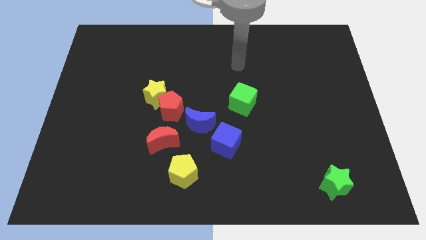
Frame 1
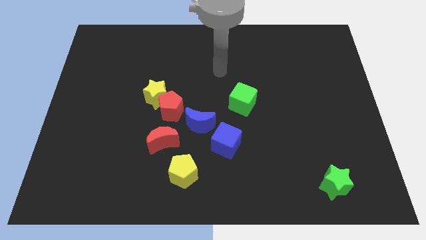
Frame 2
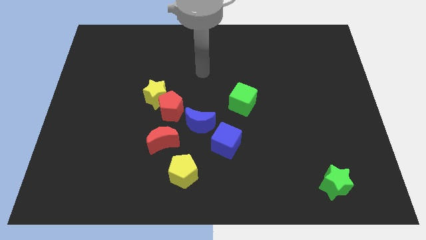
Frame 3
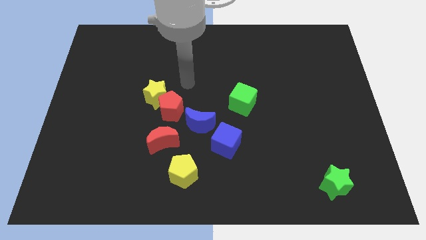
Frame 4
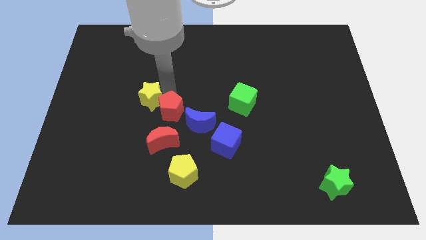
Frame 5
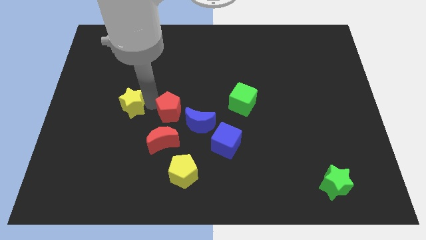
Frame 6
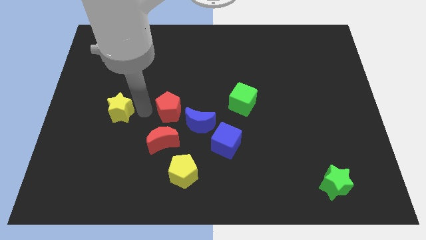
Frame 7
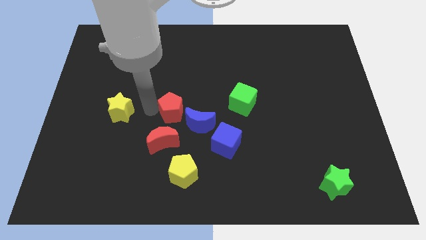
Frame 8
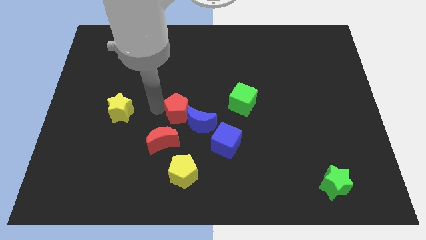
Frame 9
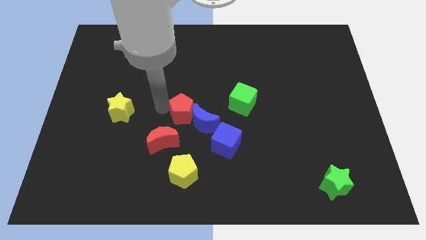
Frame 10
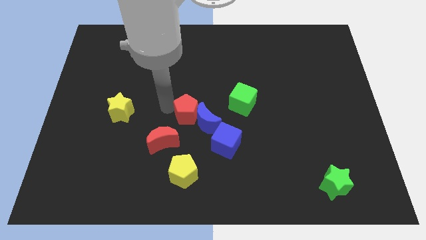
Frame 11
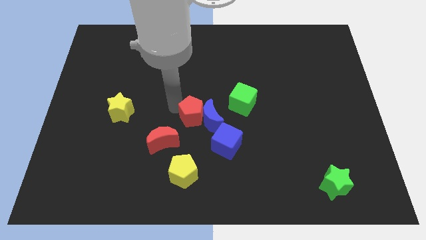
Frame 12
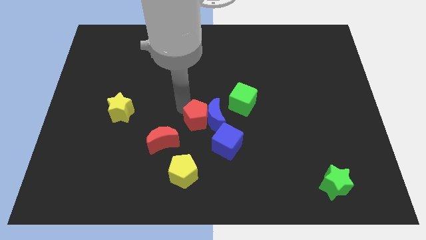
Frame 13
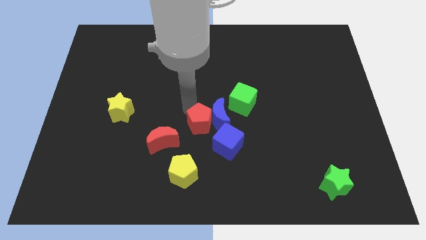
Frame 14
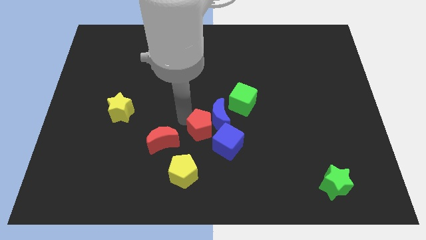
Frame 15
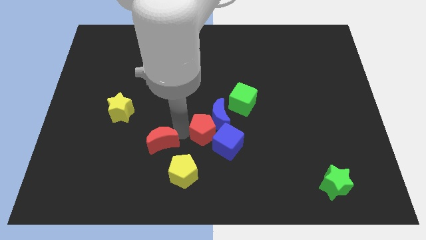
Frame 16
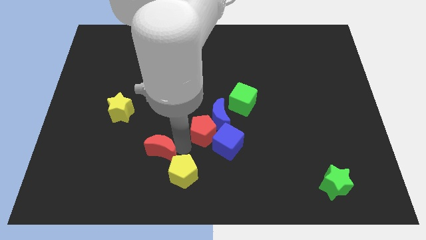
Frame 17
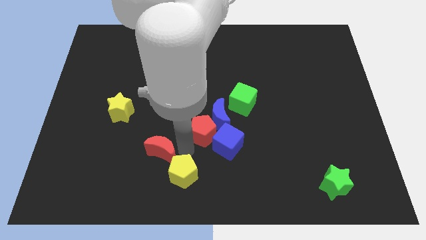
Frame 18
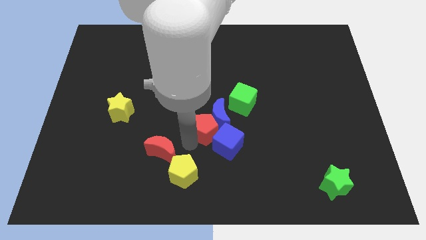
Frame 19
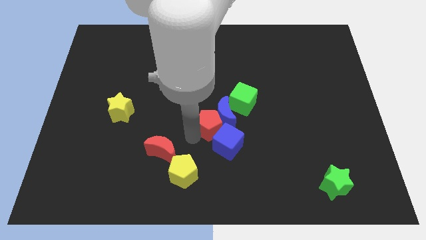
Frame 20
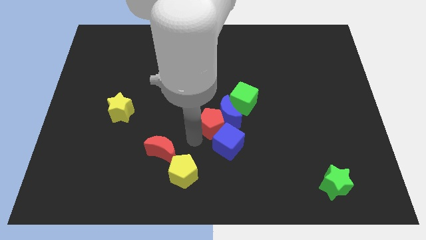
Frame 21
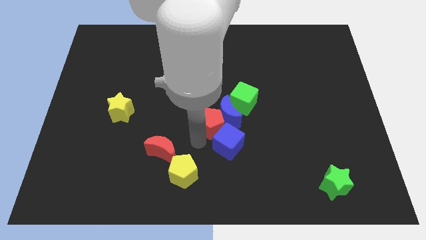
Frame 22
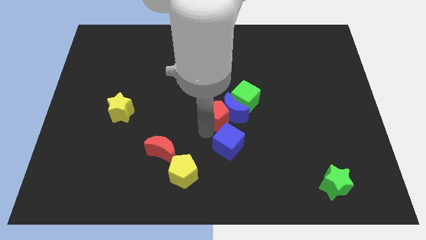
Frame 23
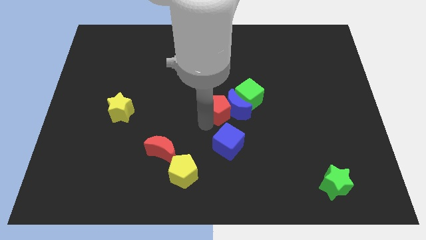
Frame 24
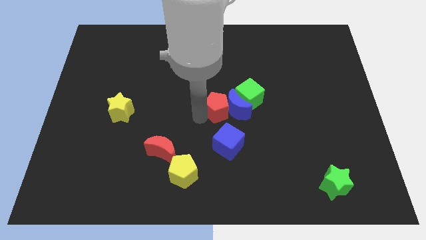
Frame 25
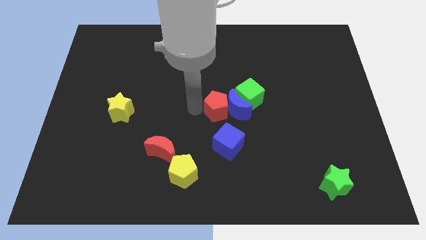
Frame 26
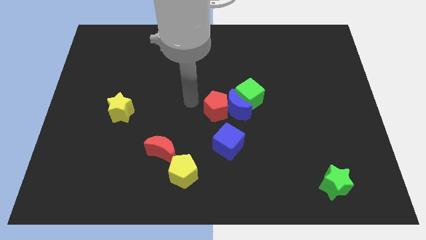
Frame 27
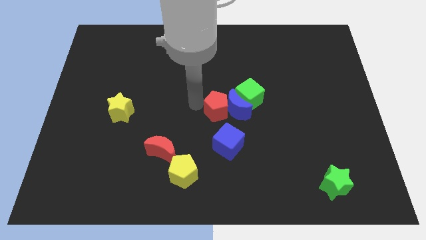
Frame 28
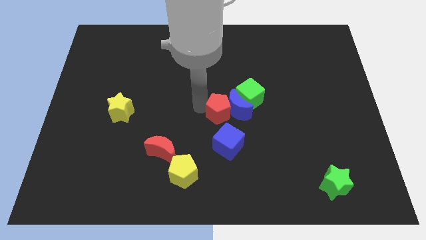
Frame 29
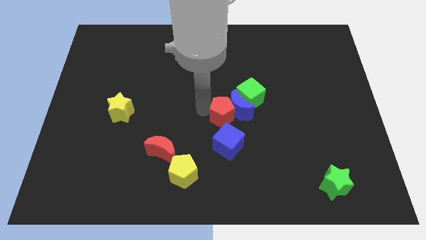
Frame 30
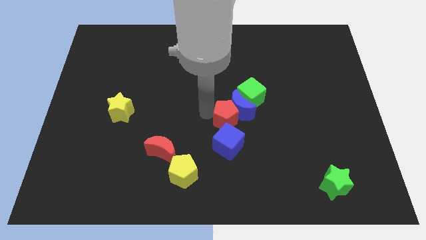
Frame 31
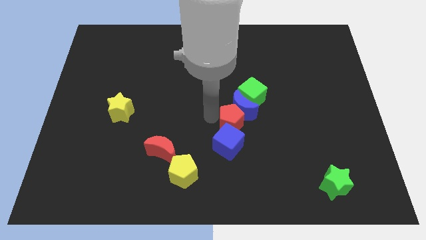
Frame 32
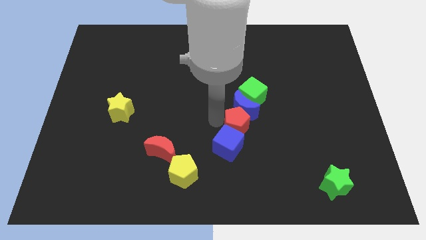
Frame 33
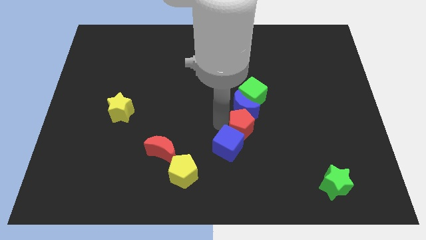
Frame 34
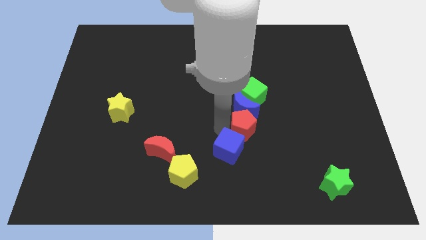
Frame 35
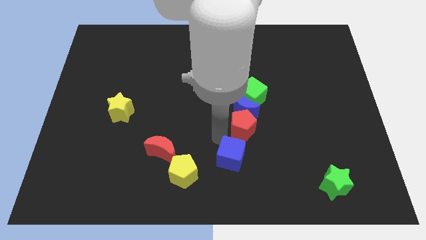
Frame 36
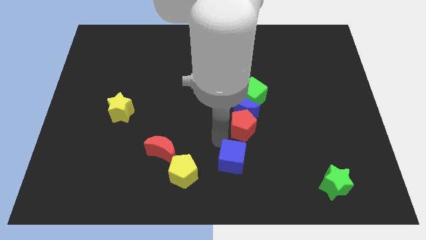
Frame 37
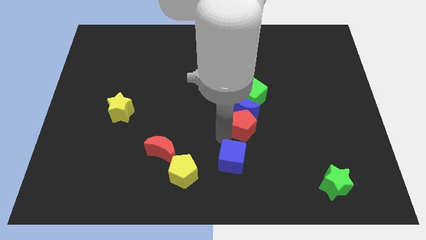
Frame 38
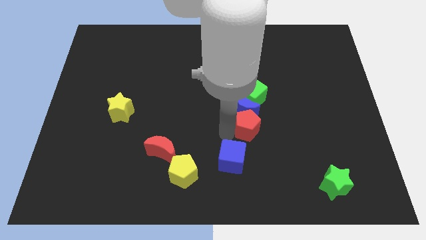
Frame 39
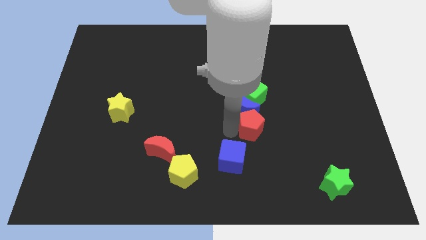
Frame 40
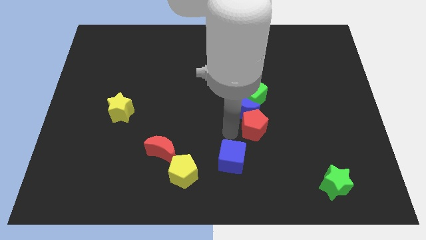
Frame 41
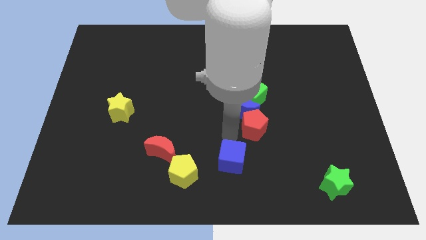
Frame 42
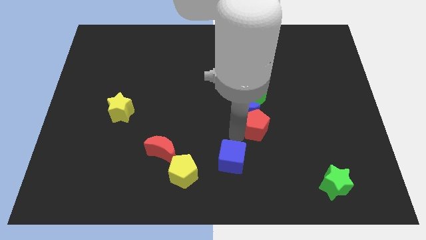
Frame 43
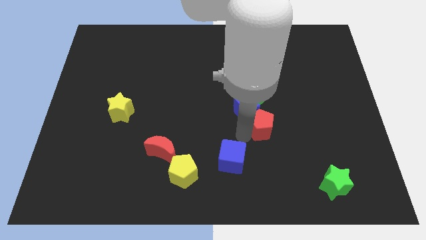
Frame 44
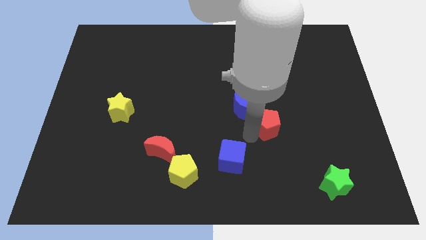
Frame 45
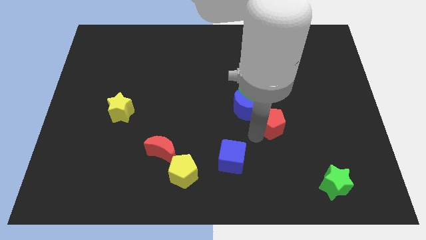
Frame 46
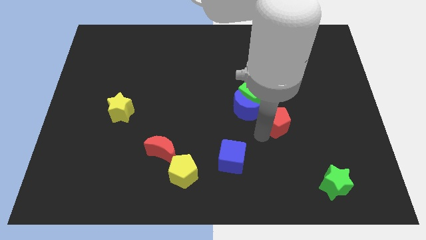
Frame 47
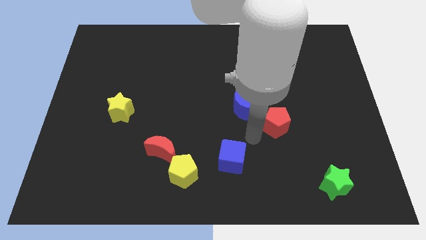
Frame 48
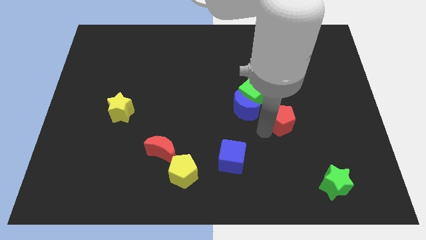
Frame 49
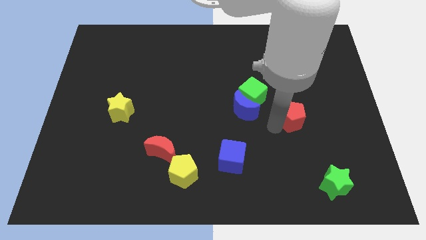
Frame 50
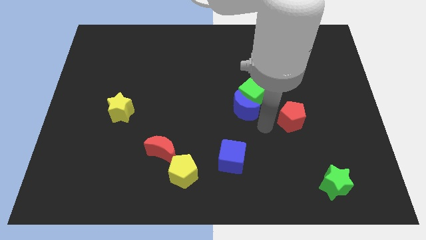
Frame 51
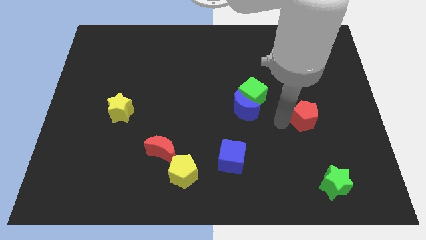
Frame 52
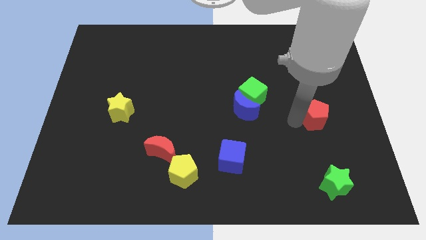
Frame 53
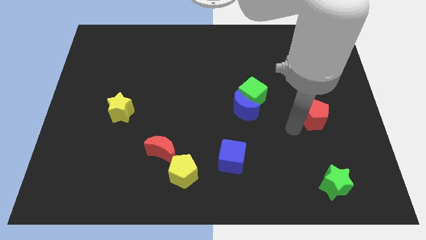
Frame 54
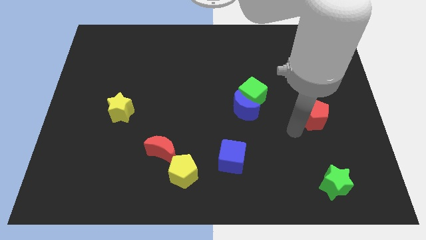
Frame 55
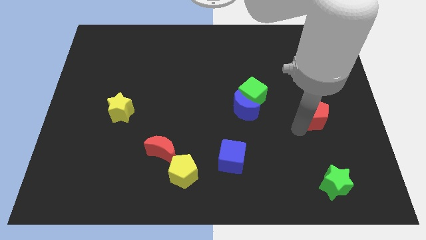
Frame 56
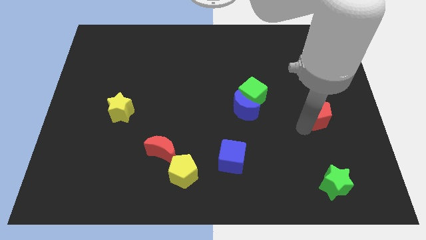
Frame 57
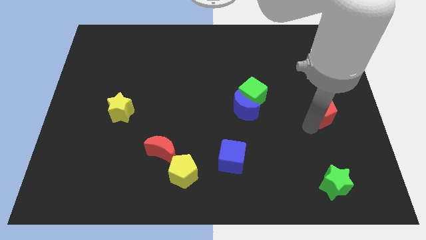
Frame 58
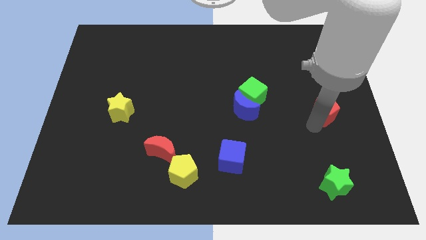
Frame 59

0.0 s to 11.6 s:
slide the red pentagon to the right side of the board
